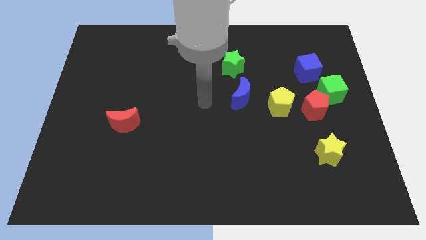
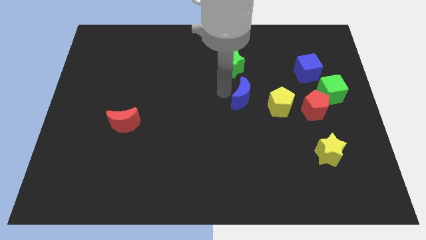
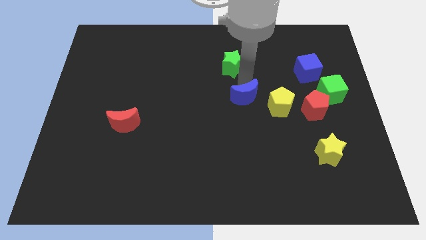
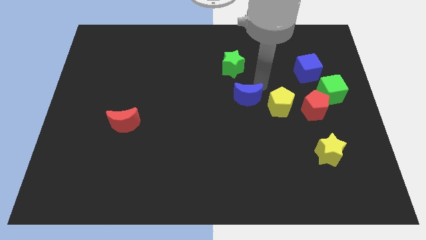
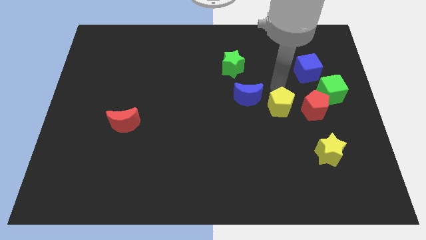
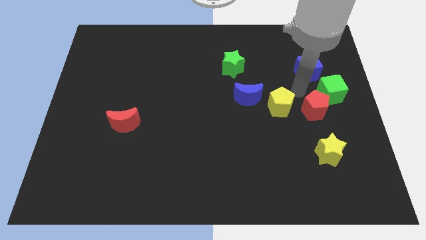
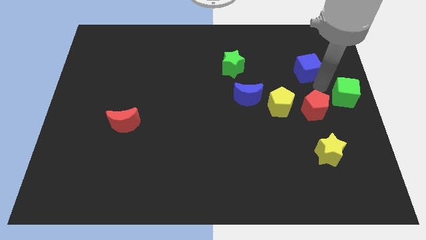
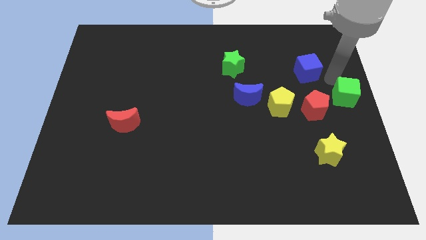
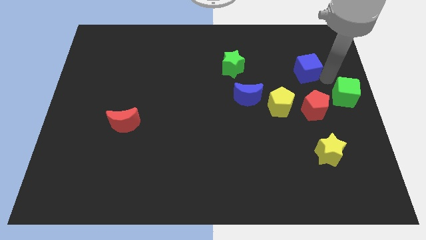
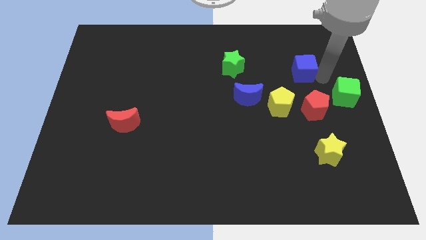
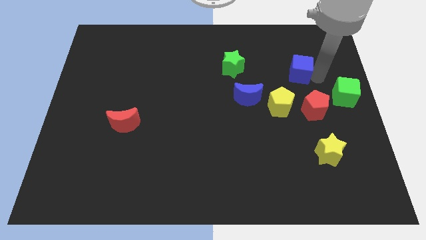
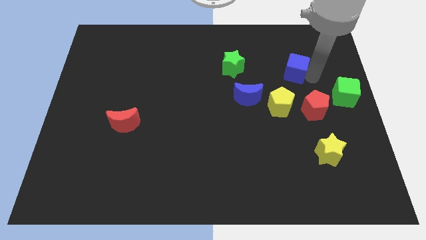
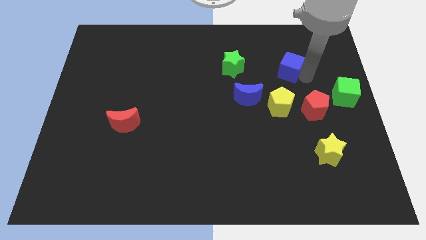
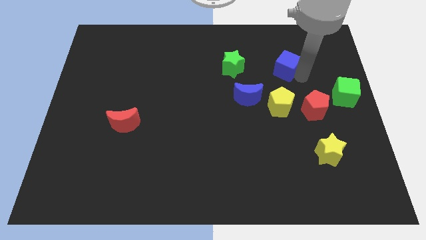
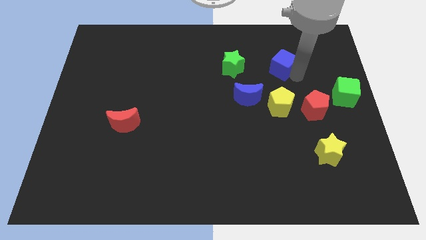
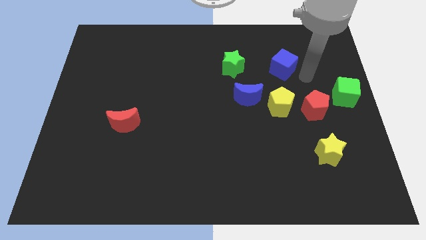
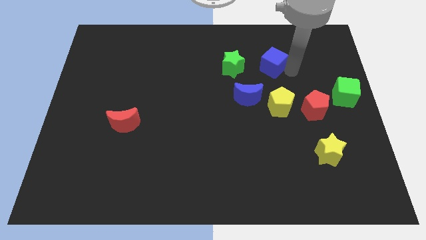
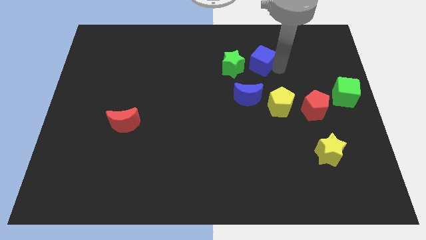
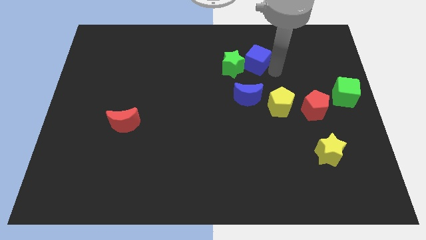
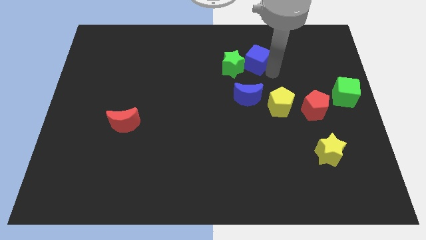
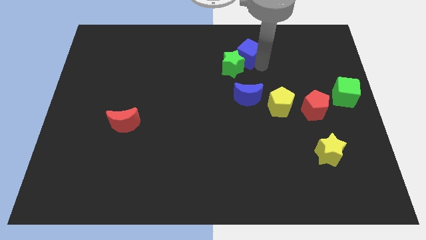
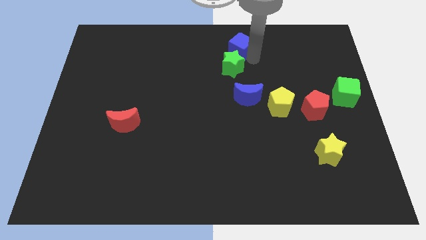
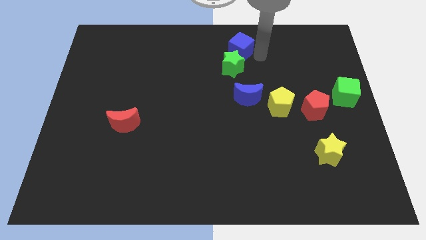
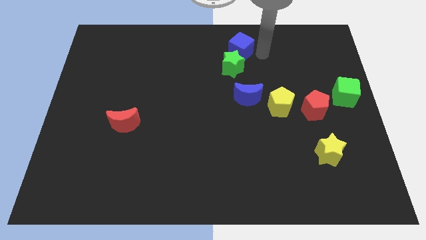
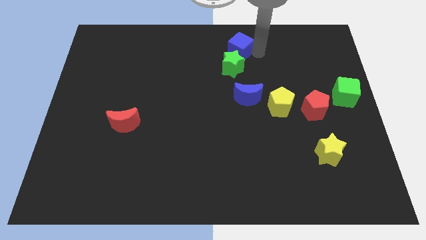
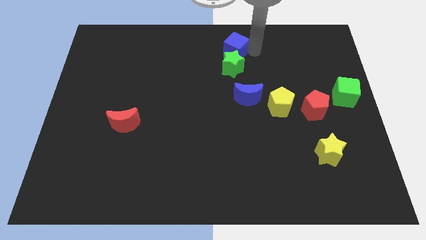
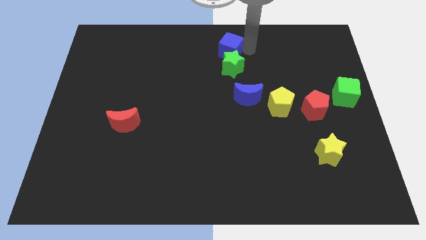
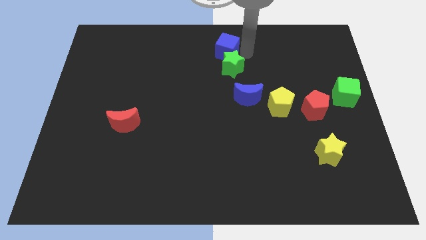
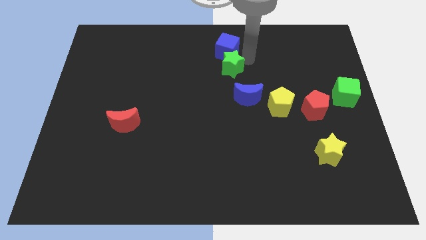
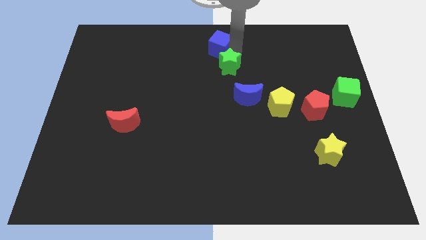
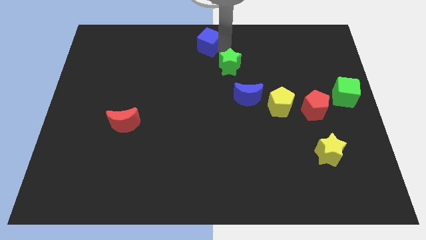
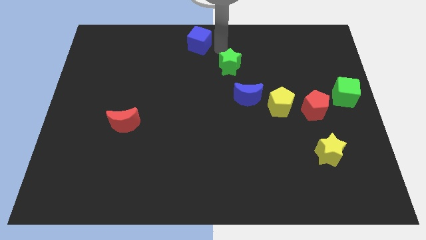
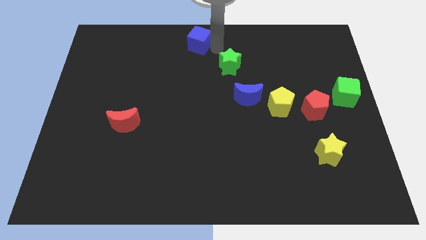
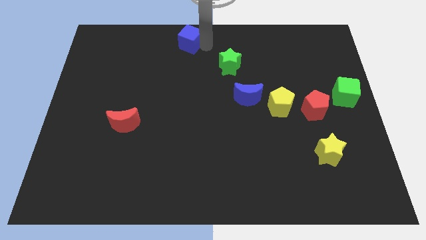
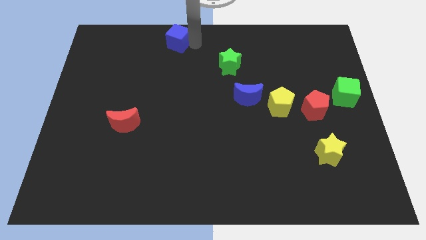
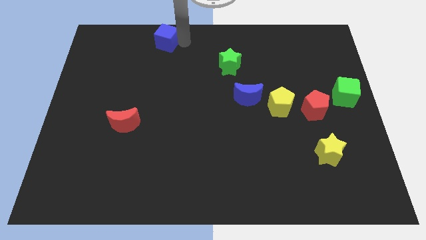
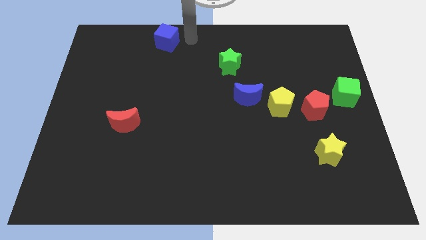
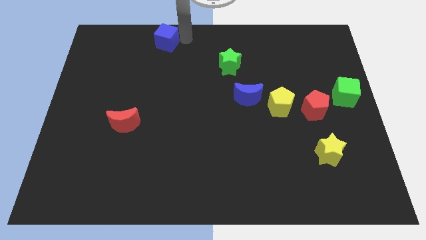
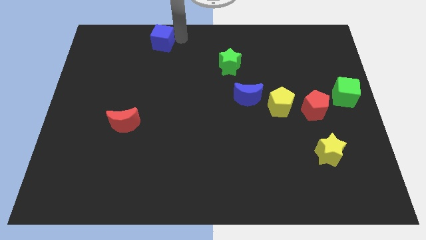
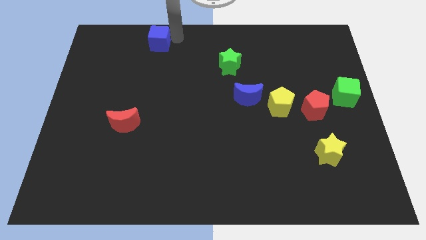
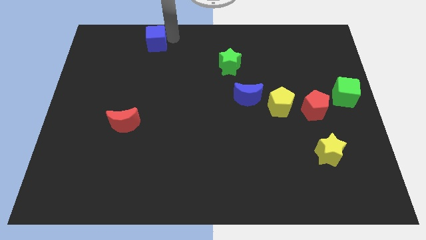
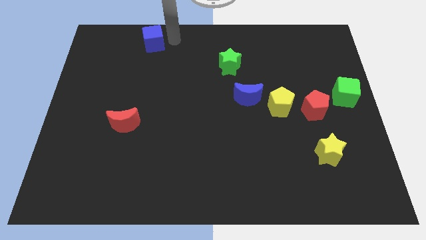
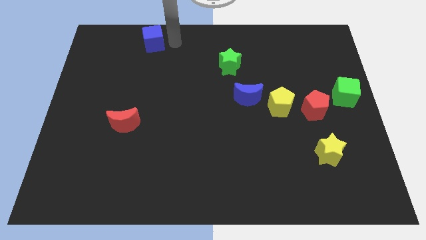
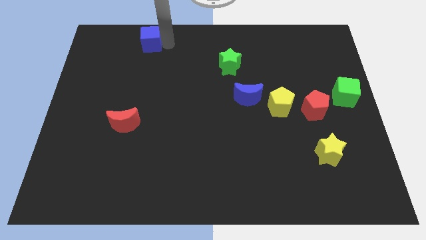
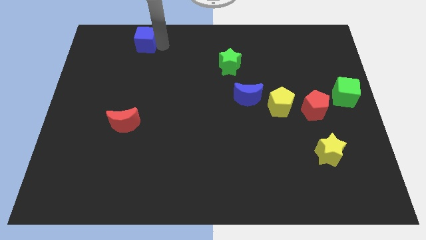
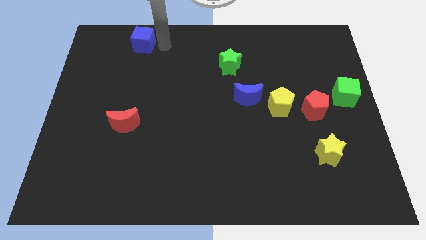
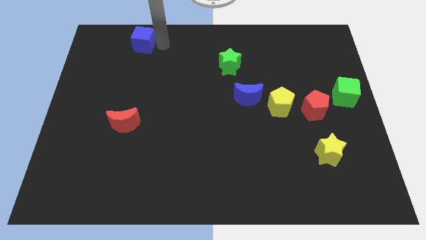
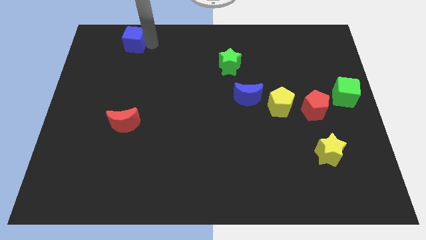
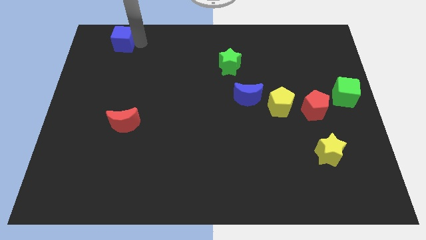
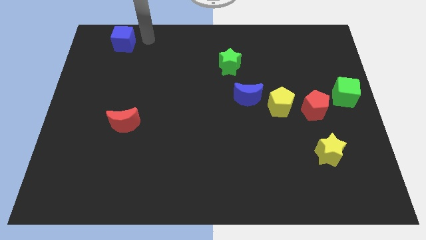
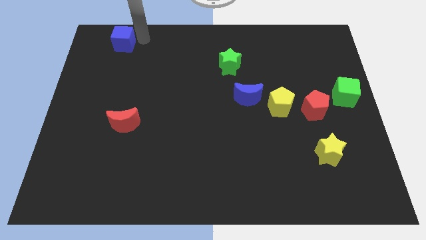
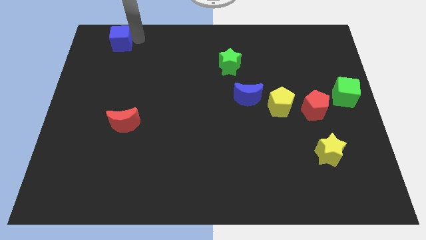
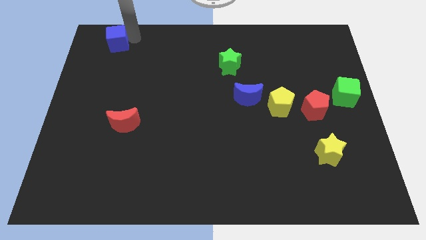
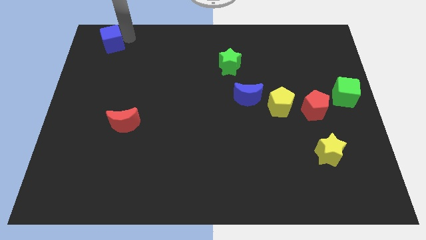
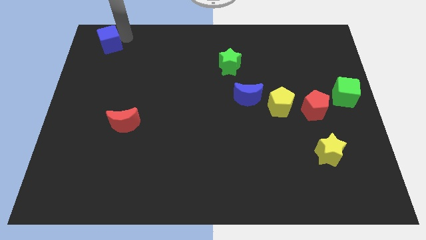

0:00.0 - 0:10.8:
put the blue cube to the top left

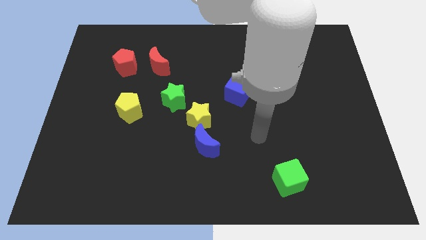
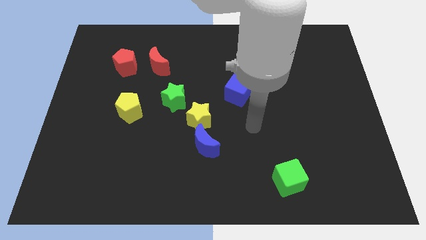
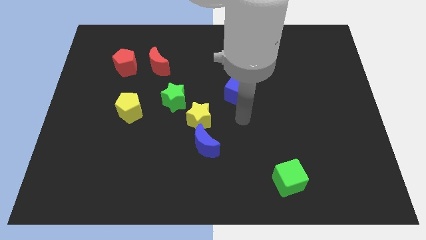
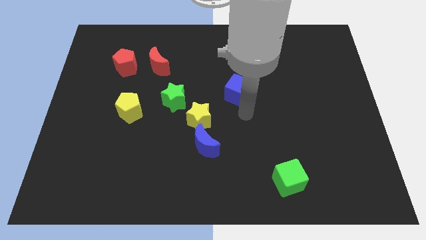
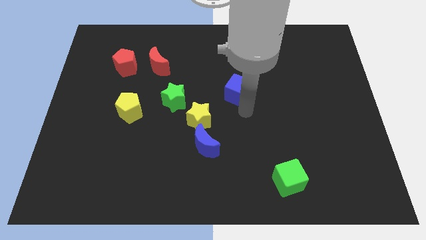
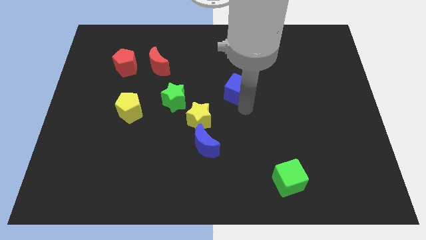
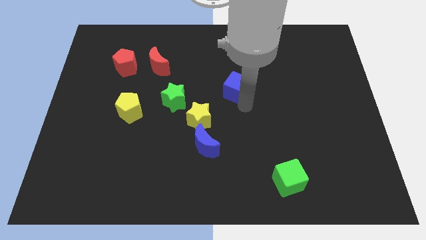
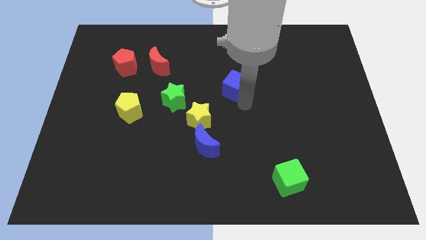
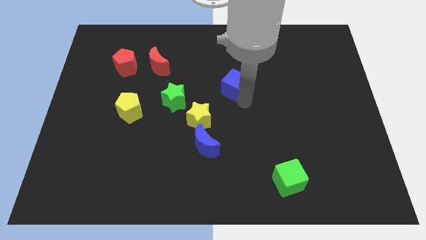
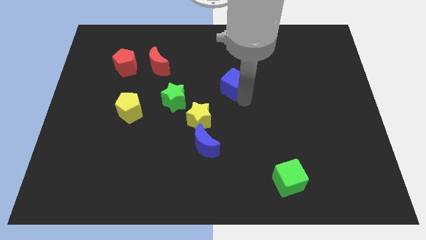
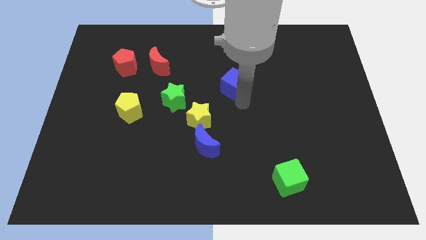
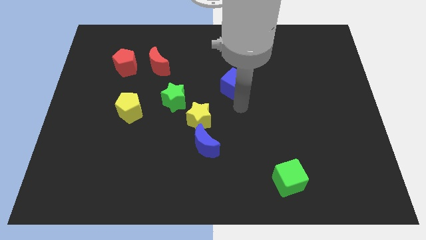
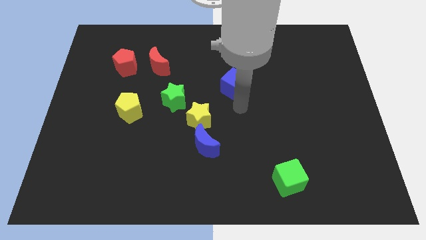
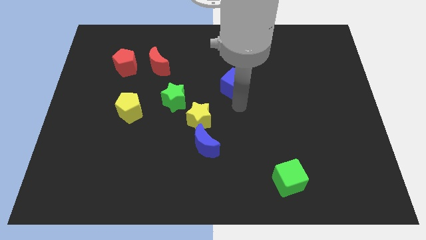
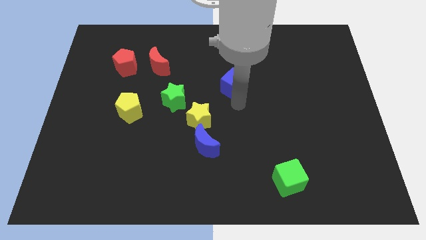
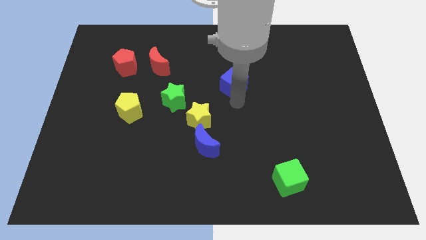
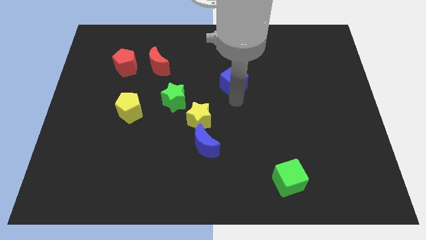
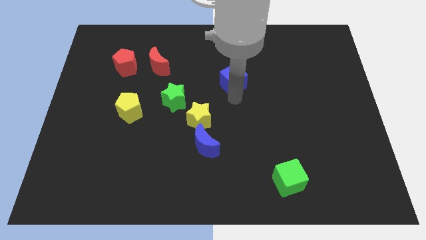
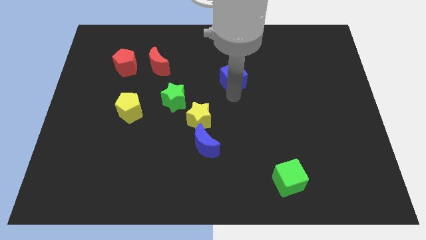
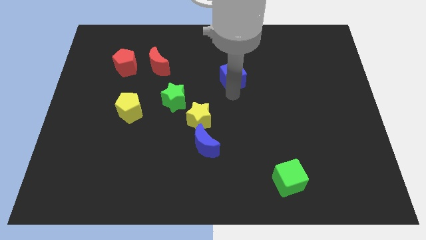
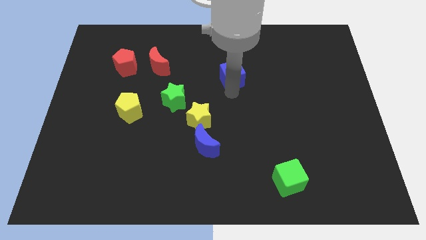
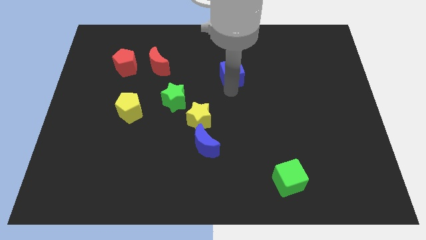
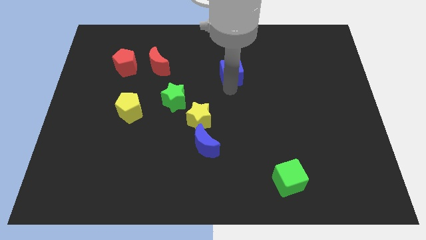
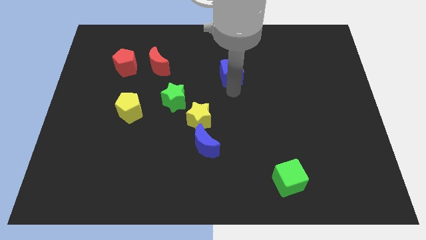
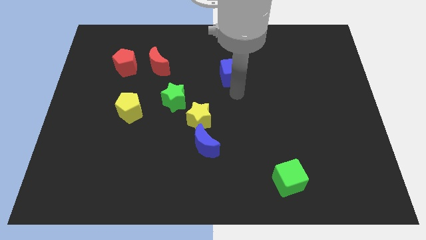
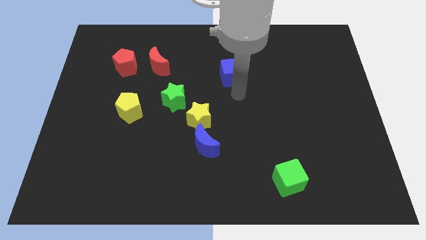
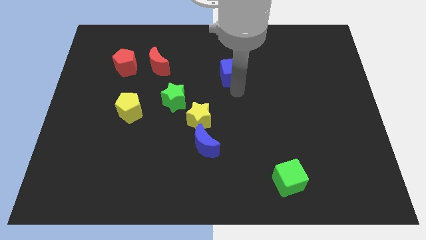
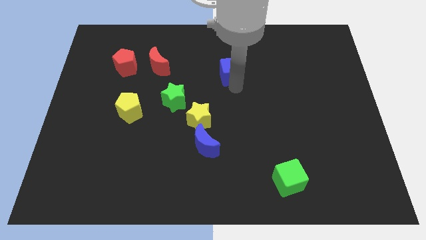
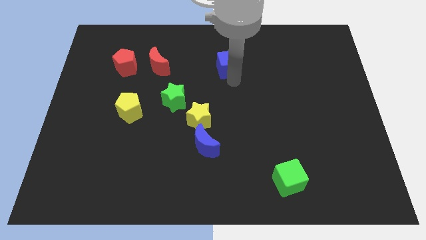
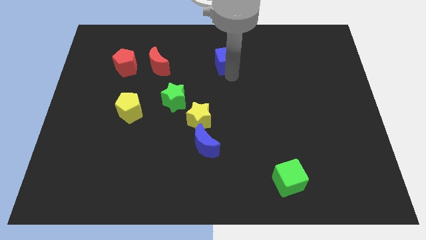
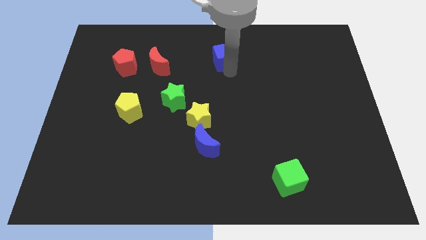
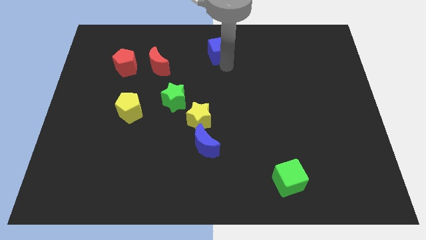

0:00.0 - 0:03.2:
move the blue cube to the top
